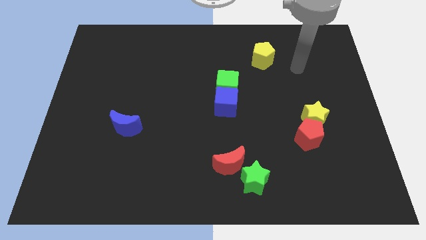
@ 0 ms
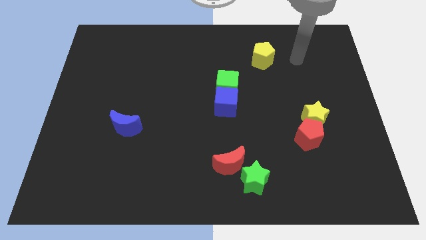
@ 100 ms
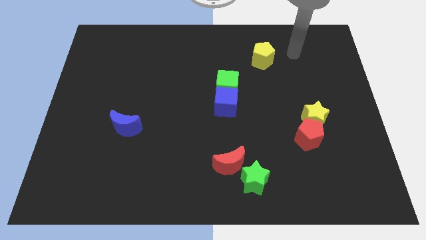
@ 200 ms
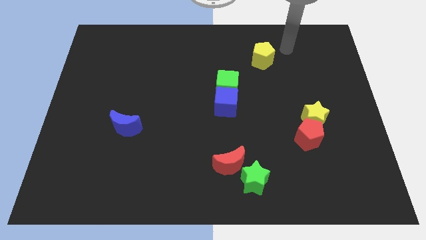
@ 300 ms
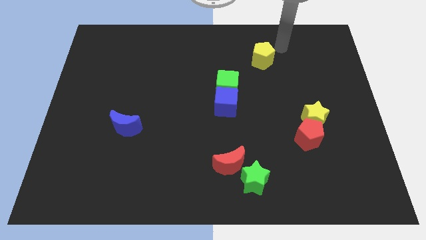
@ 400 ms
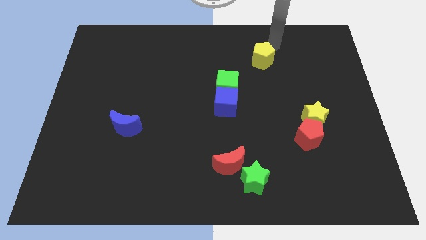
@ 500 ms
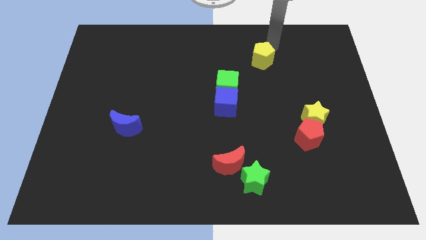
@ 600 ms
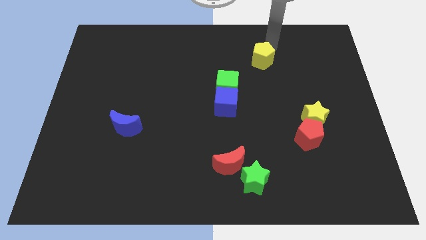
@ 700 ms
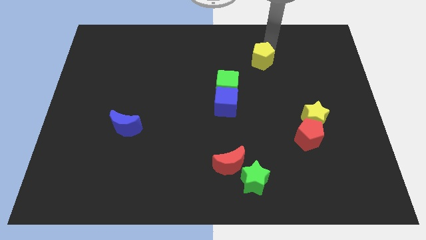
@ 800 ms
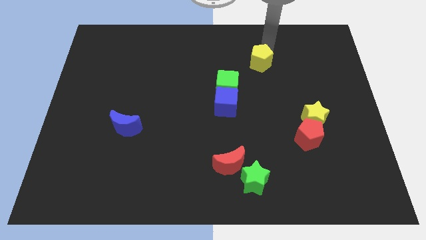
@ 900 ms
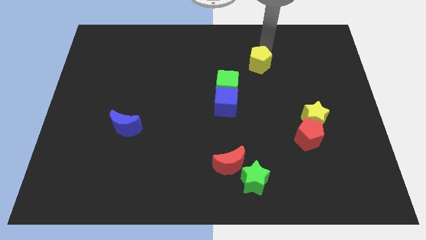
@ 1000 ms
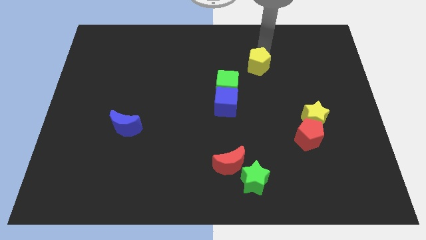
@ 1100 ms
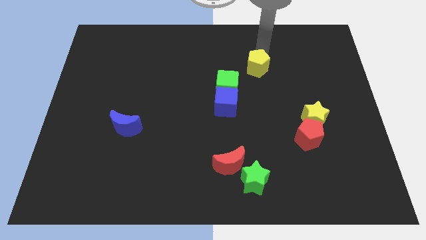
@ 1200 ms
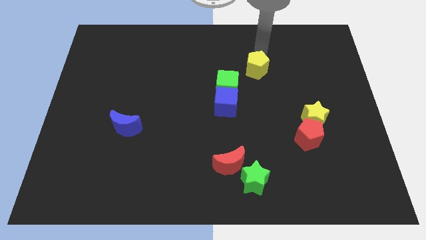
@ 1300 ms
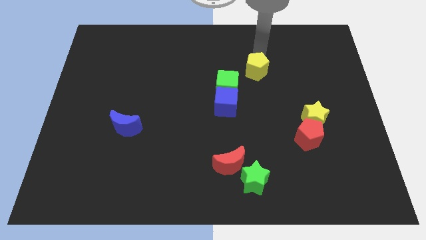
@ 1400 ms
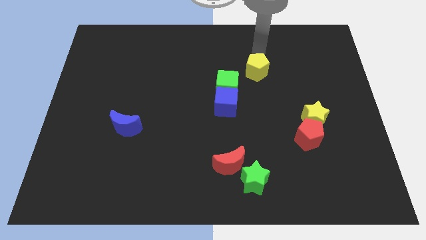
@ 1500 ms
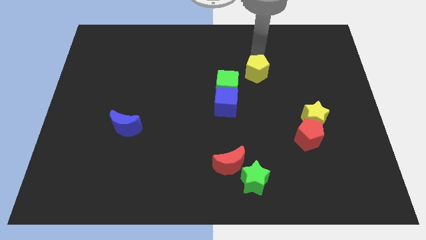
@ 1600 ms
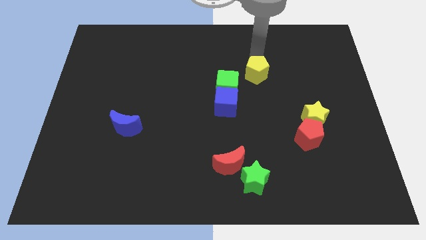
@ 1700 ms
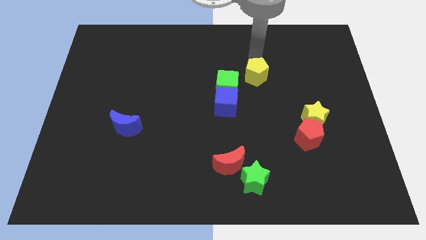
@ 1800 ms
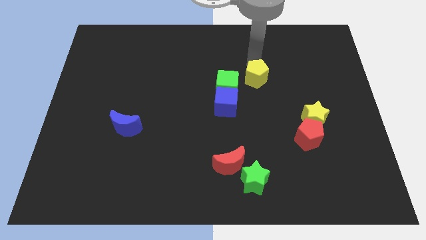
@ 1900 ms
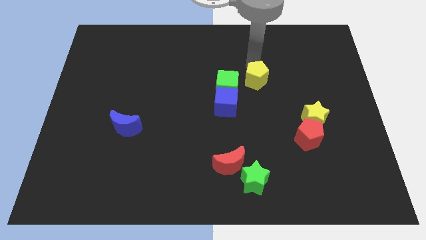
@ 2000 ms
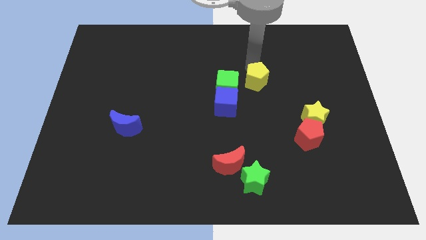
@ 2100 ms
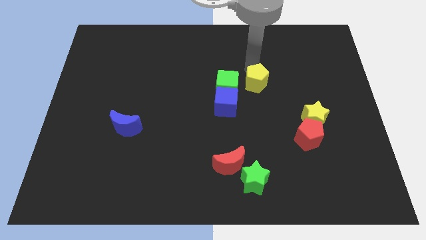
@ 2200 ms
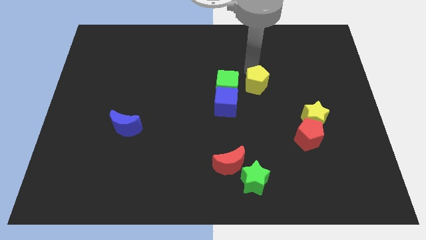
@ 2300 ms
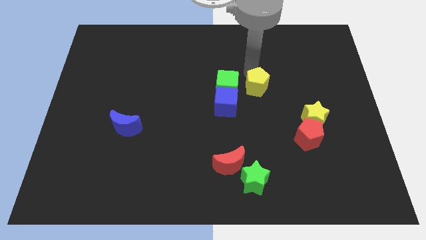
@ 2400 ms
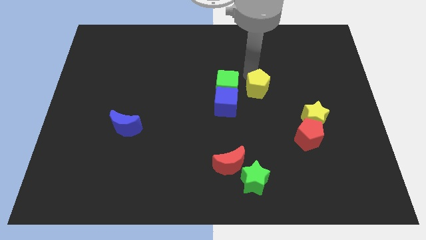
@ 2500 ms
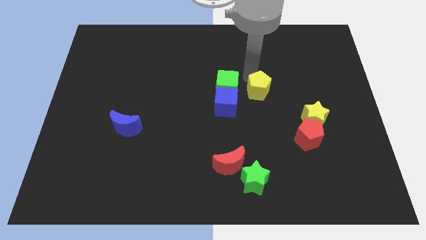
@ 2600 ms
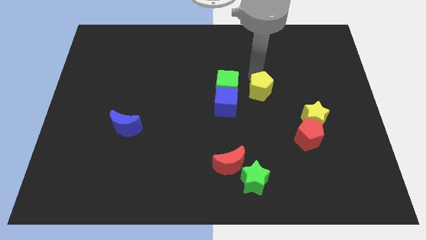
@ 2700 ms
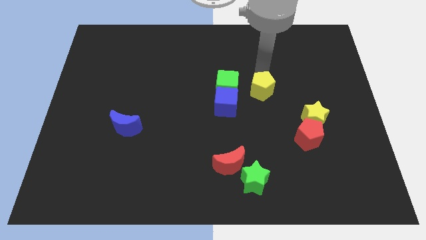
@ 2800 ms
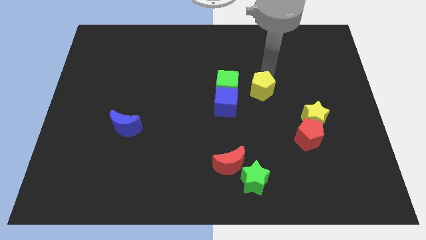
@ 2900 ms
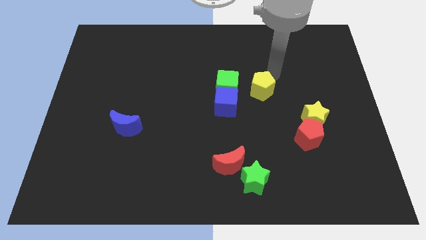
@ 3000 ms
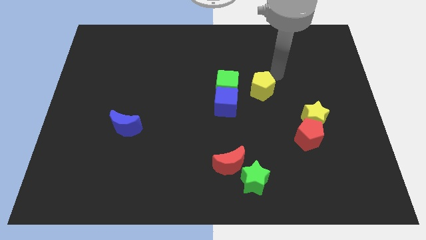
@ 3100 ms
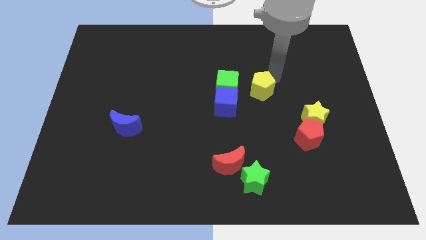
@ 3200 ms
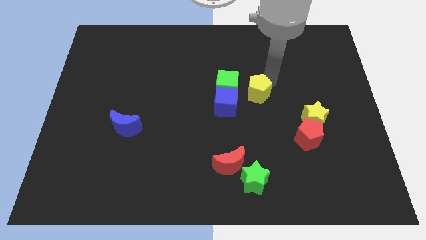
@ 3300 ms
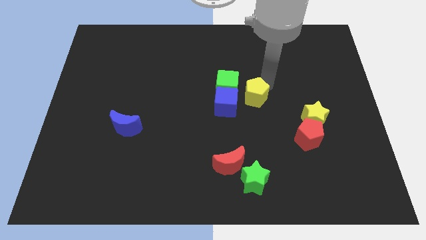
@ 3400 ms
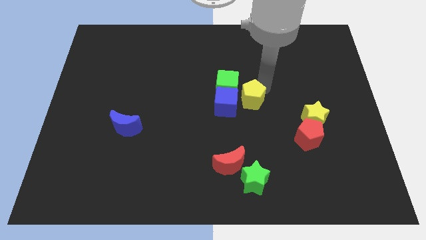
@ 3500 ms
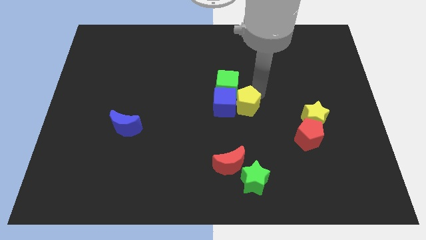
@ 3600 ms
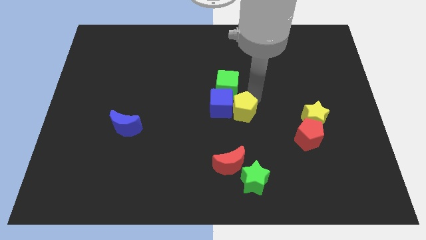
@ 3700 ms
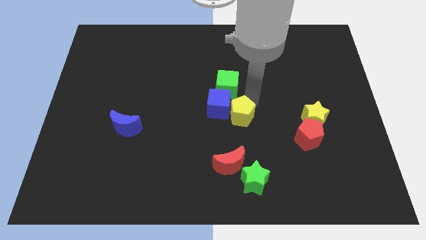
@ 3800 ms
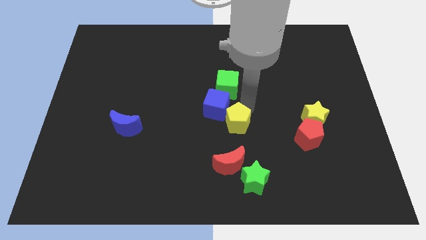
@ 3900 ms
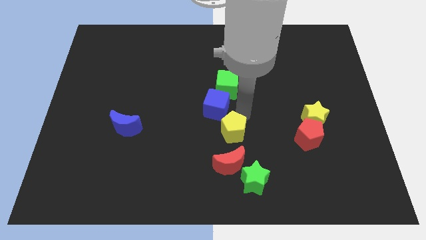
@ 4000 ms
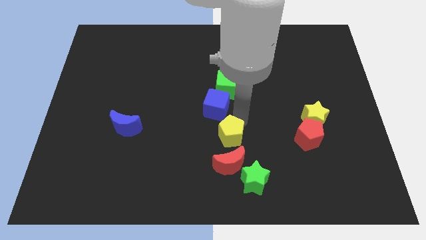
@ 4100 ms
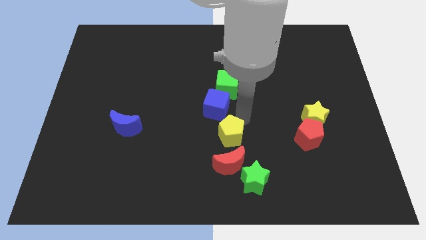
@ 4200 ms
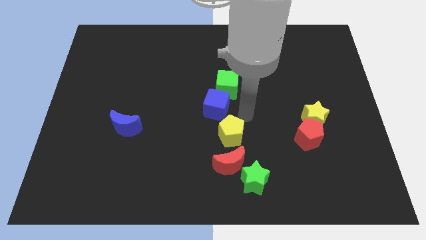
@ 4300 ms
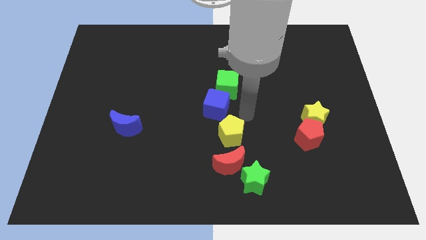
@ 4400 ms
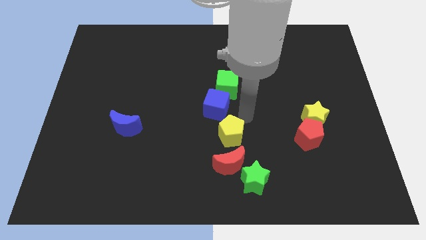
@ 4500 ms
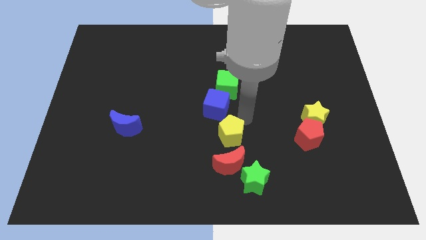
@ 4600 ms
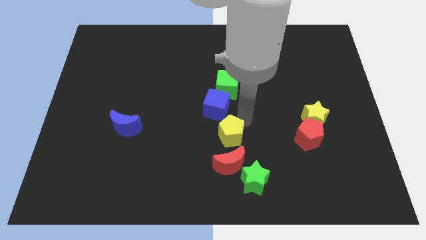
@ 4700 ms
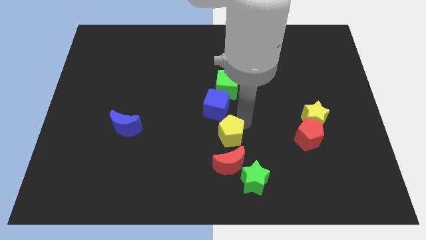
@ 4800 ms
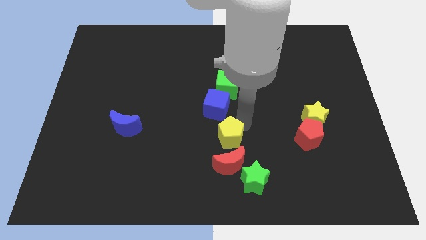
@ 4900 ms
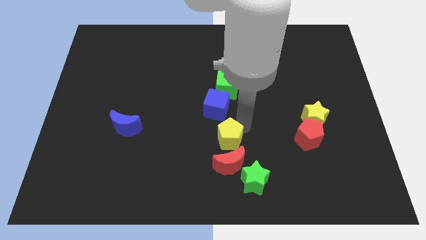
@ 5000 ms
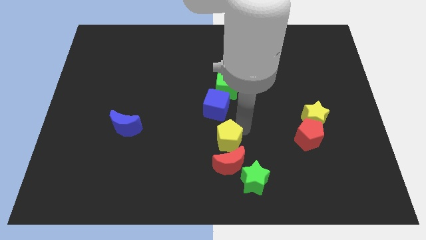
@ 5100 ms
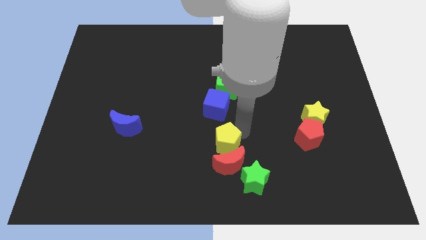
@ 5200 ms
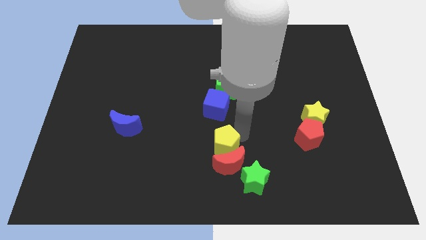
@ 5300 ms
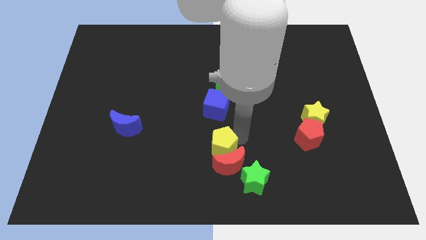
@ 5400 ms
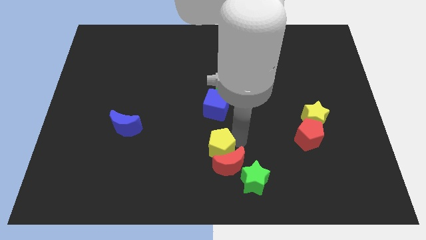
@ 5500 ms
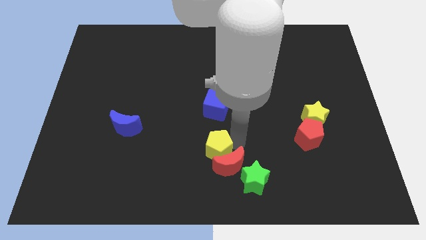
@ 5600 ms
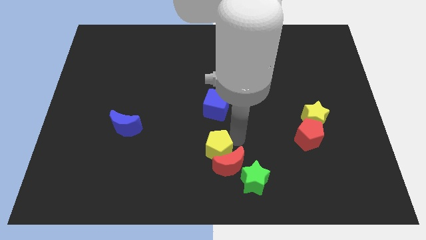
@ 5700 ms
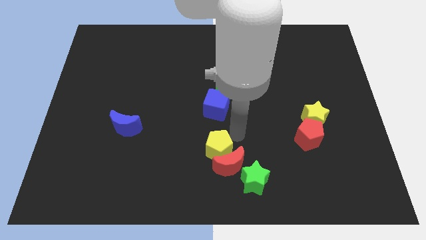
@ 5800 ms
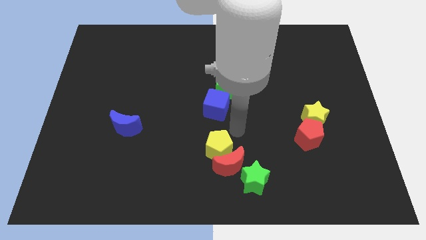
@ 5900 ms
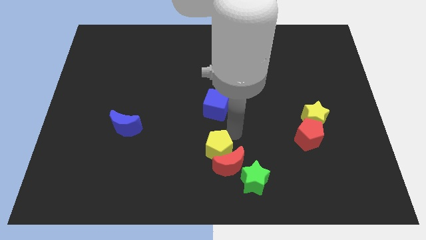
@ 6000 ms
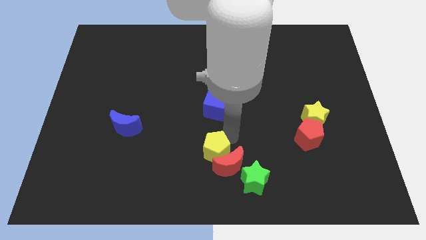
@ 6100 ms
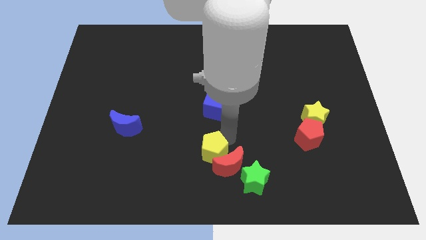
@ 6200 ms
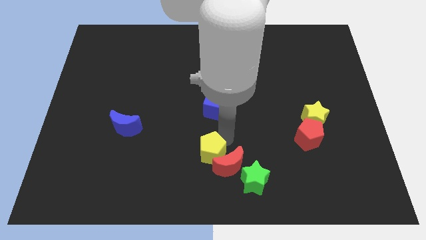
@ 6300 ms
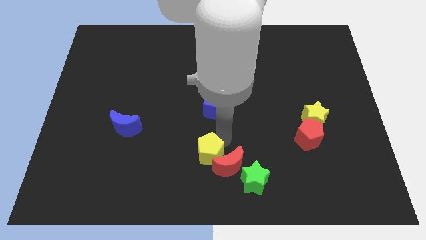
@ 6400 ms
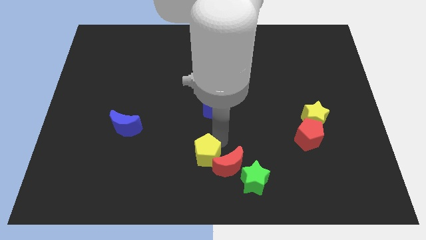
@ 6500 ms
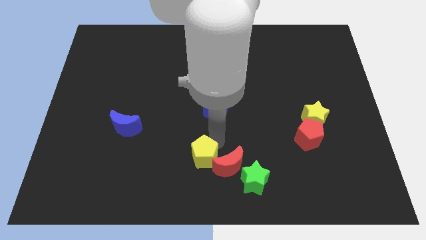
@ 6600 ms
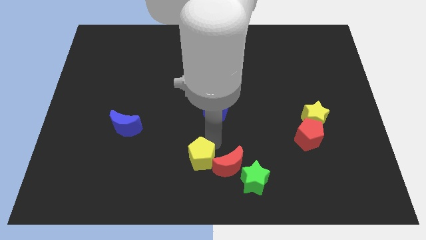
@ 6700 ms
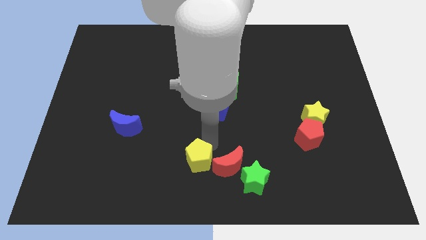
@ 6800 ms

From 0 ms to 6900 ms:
slide the yellow pentagon to the left side of the green star

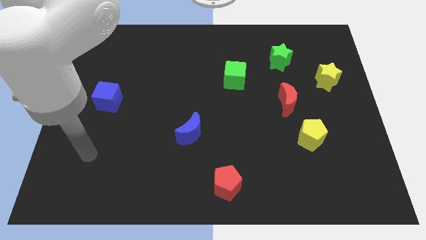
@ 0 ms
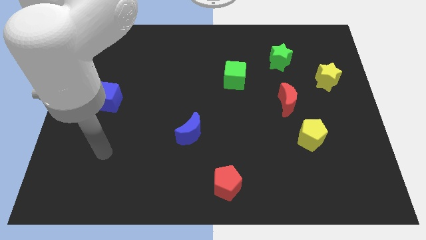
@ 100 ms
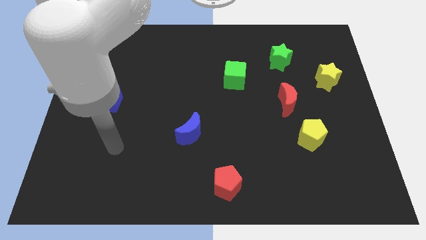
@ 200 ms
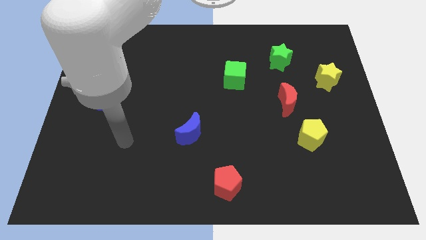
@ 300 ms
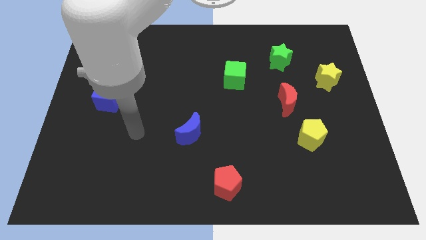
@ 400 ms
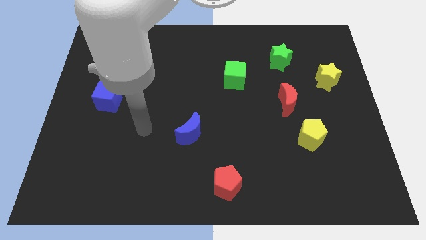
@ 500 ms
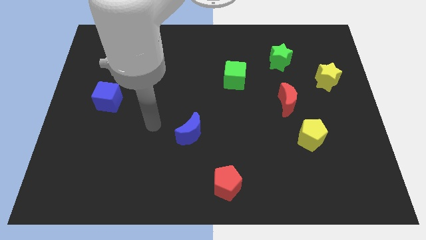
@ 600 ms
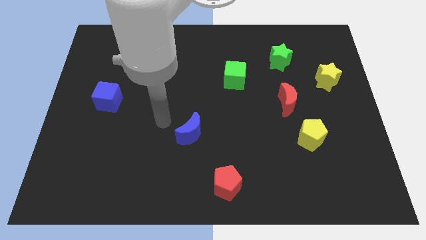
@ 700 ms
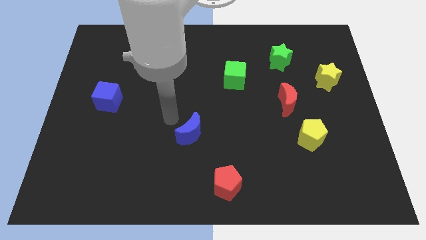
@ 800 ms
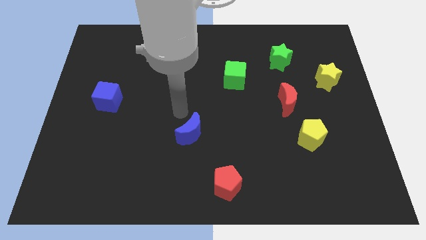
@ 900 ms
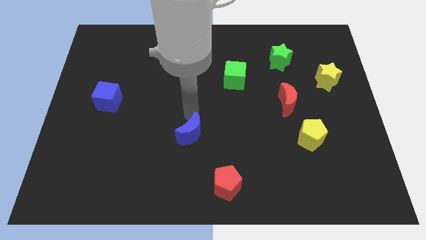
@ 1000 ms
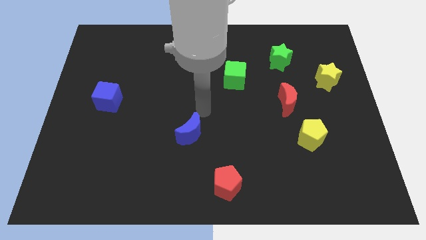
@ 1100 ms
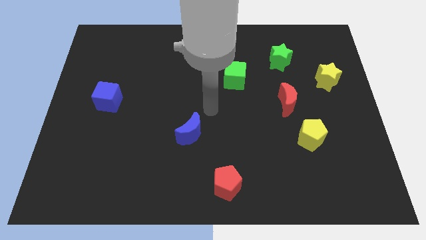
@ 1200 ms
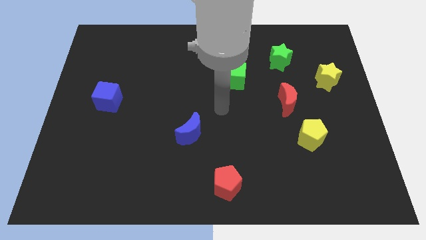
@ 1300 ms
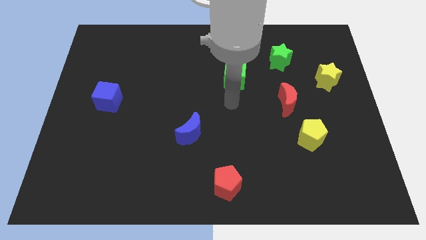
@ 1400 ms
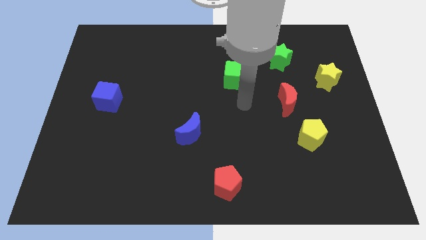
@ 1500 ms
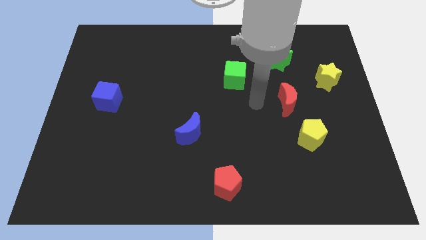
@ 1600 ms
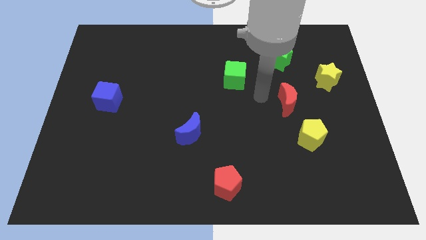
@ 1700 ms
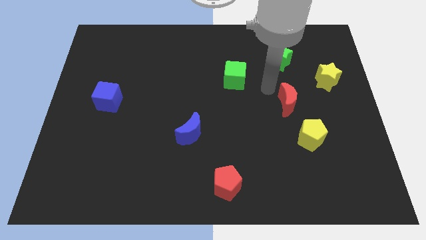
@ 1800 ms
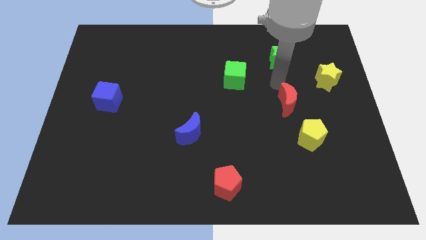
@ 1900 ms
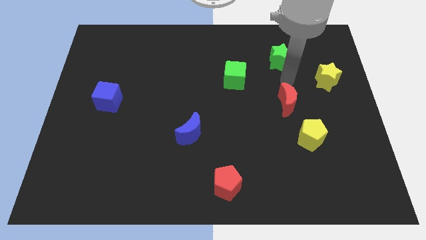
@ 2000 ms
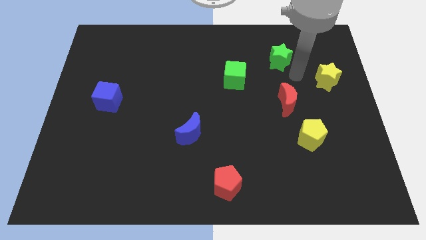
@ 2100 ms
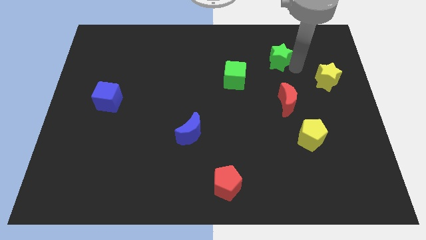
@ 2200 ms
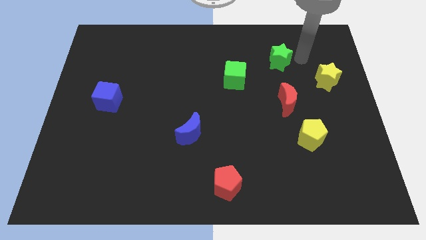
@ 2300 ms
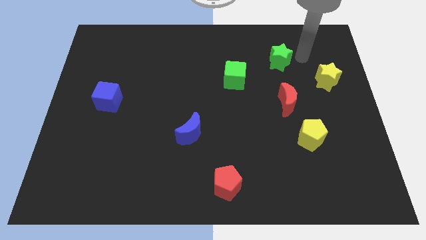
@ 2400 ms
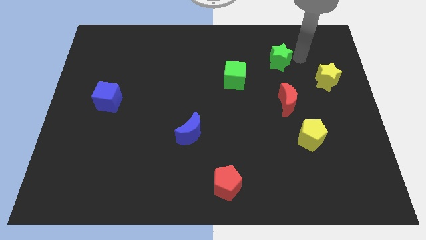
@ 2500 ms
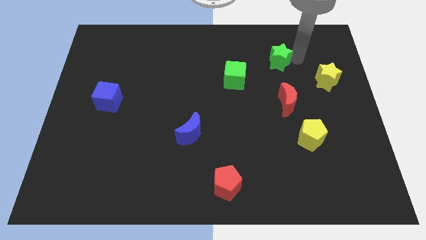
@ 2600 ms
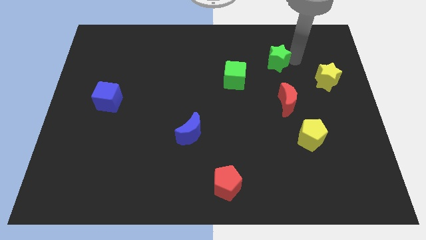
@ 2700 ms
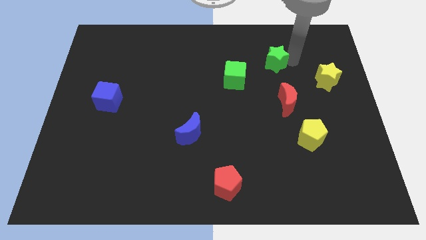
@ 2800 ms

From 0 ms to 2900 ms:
push the green star to the top right of the green cube
